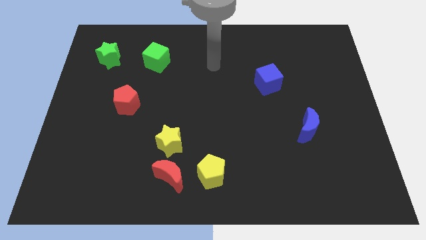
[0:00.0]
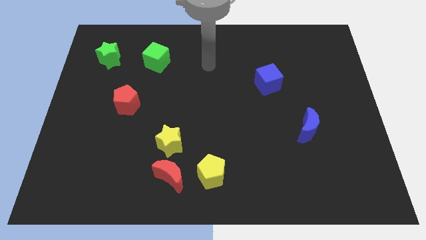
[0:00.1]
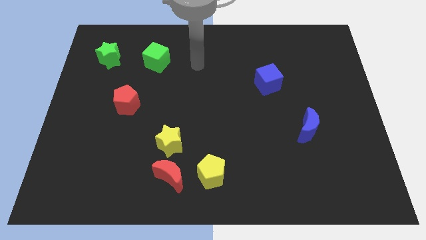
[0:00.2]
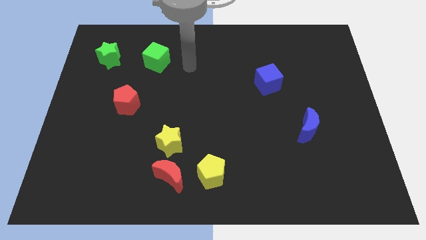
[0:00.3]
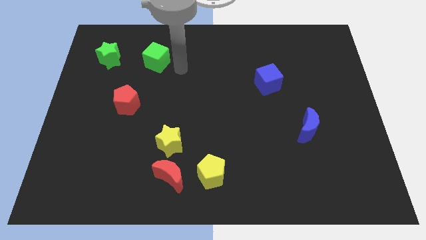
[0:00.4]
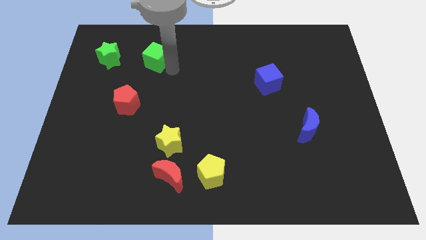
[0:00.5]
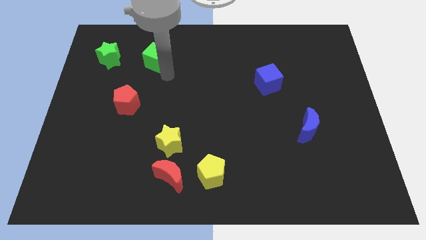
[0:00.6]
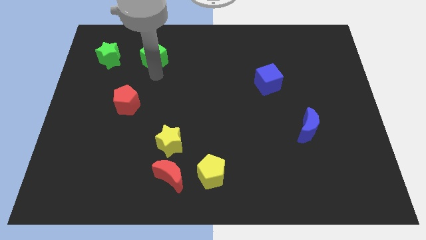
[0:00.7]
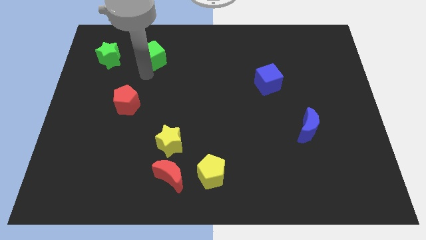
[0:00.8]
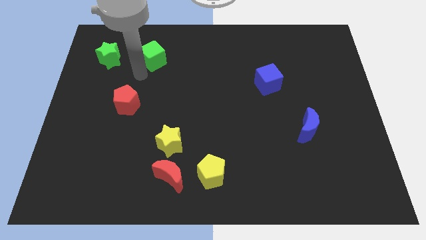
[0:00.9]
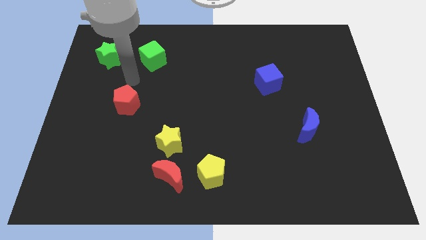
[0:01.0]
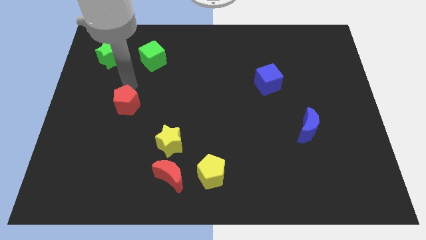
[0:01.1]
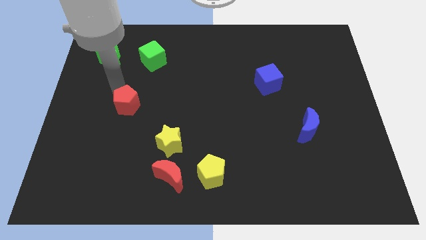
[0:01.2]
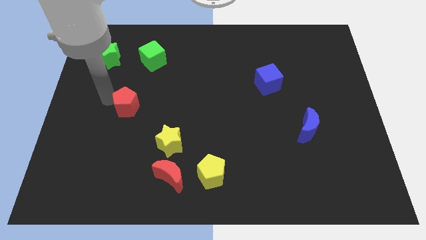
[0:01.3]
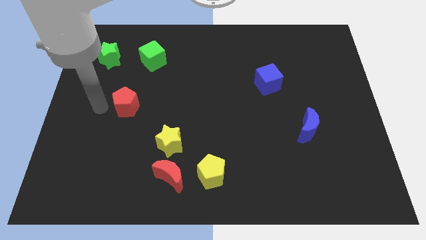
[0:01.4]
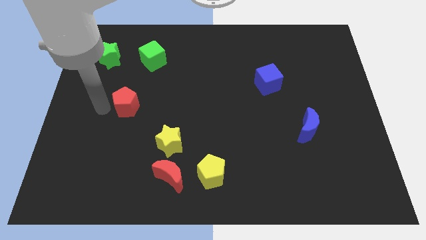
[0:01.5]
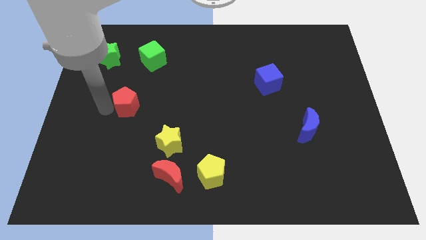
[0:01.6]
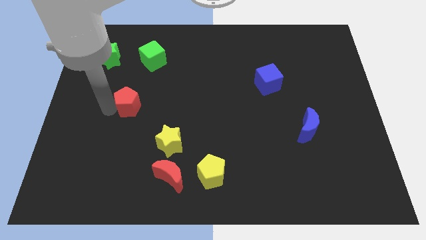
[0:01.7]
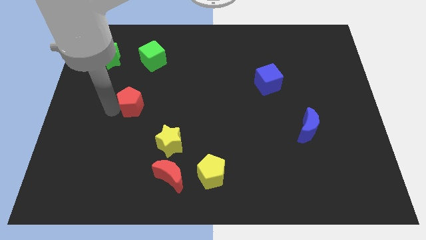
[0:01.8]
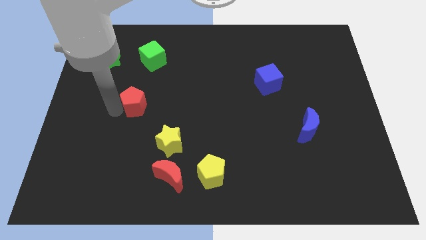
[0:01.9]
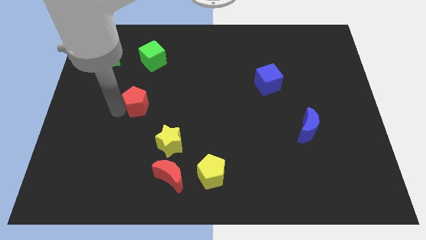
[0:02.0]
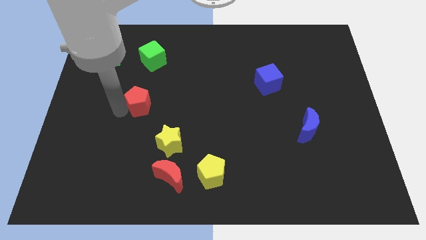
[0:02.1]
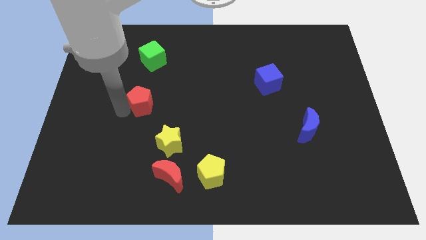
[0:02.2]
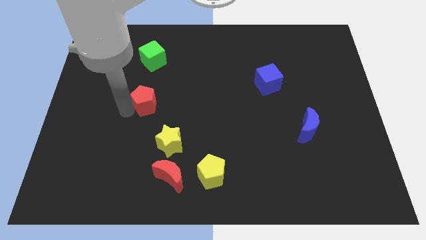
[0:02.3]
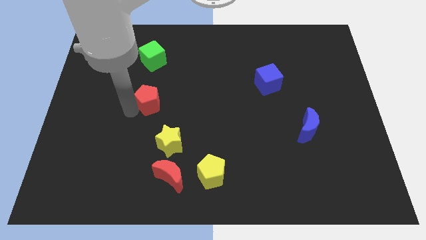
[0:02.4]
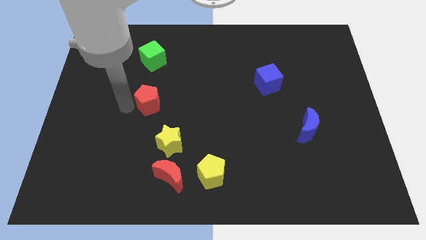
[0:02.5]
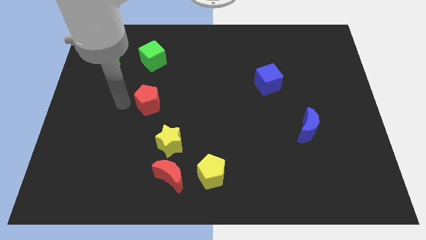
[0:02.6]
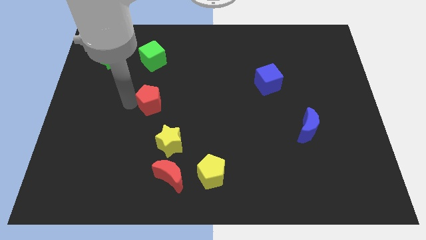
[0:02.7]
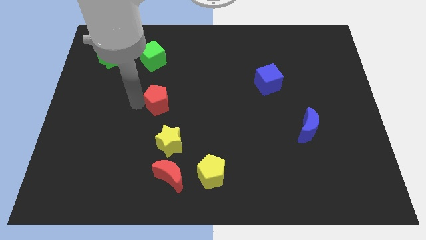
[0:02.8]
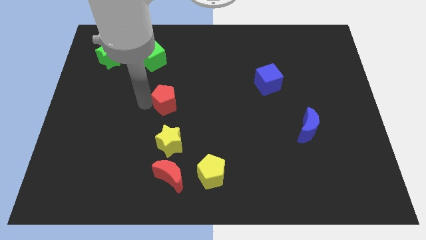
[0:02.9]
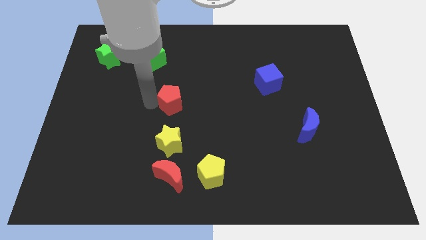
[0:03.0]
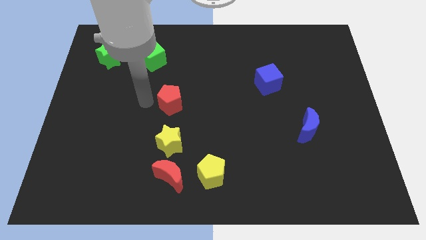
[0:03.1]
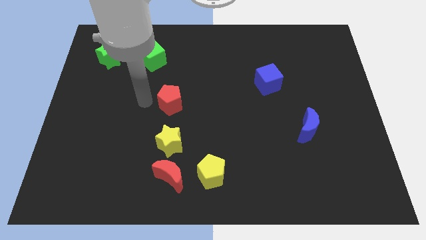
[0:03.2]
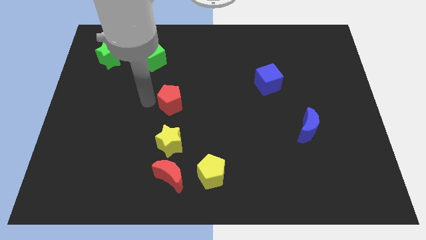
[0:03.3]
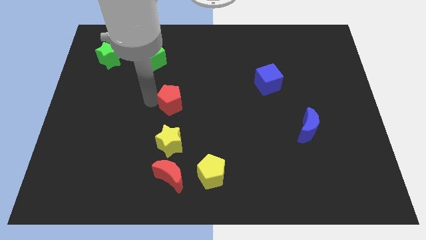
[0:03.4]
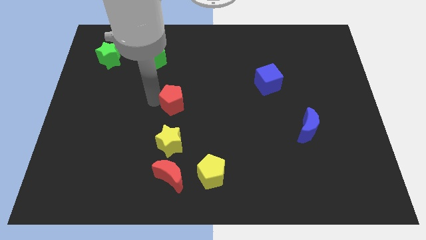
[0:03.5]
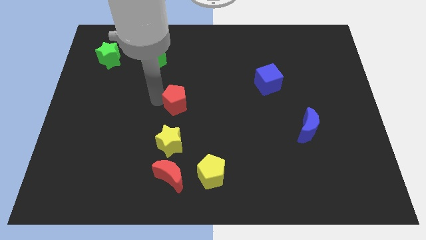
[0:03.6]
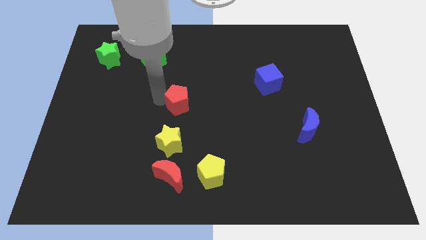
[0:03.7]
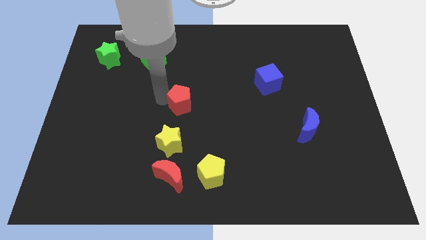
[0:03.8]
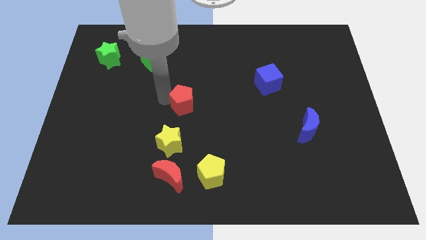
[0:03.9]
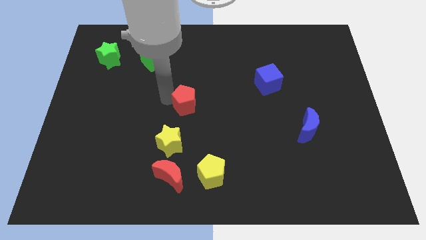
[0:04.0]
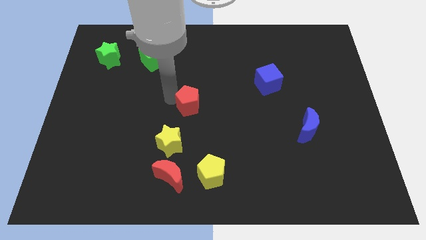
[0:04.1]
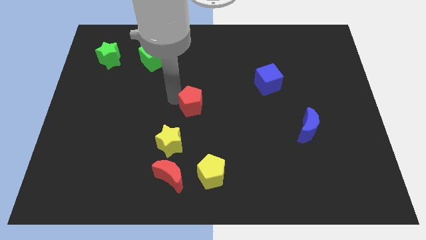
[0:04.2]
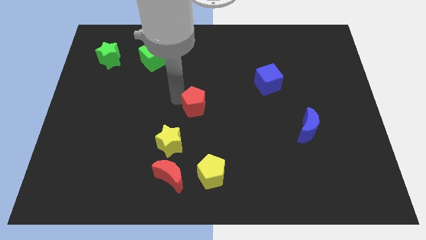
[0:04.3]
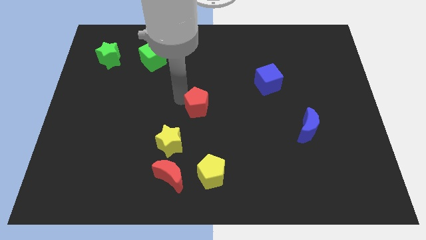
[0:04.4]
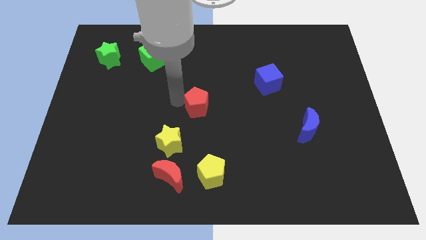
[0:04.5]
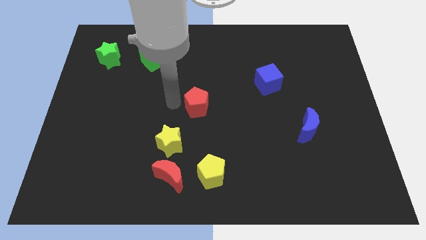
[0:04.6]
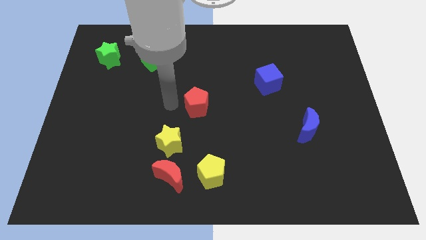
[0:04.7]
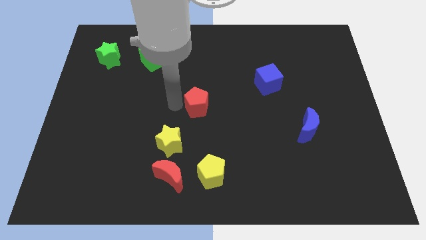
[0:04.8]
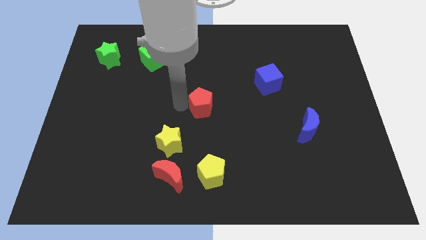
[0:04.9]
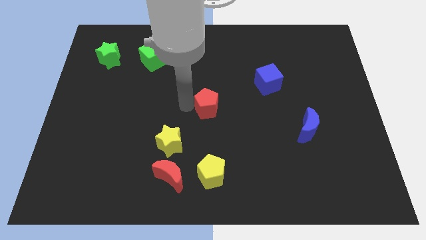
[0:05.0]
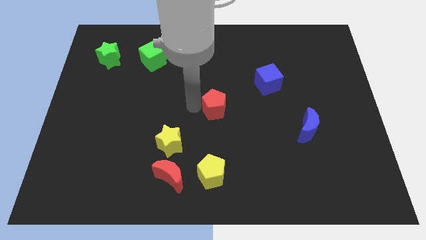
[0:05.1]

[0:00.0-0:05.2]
push the red pentagon to the right

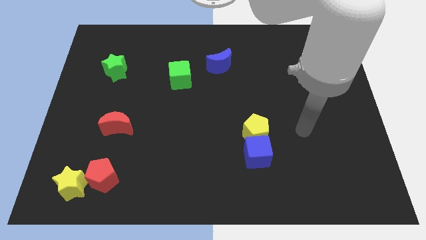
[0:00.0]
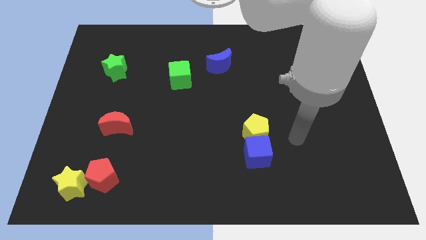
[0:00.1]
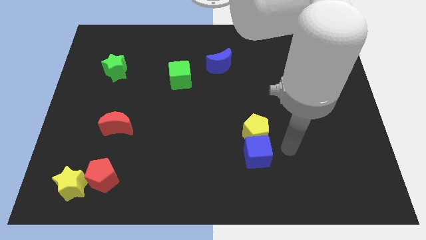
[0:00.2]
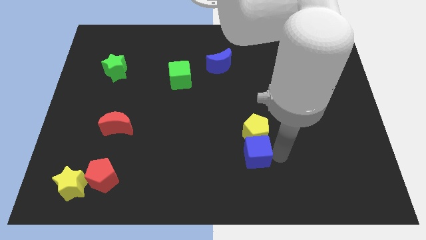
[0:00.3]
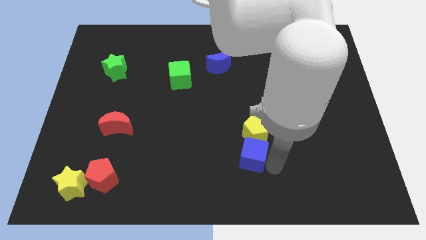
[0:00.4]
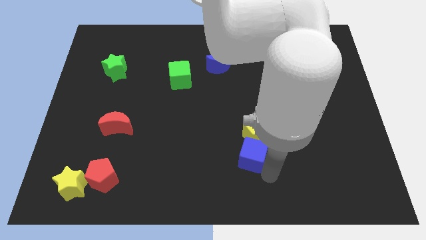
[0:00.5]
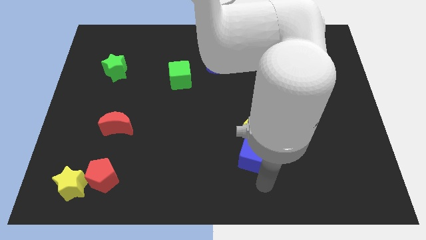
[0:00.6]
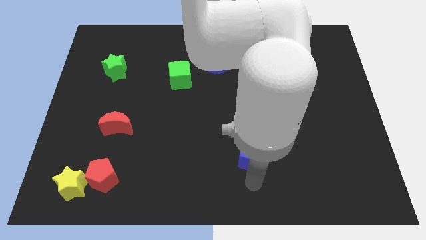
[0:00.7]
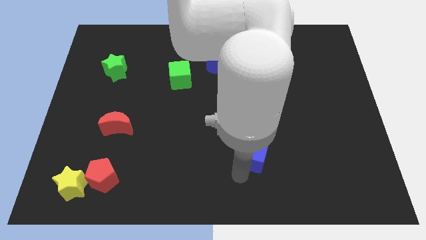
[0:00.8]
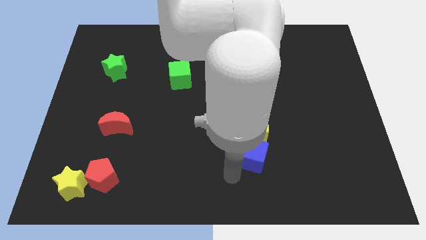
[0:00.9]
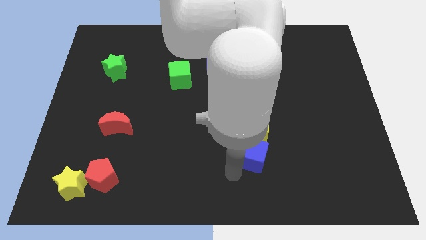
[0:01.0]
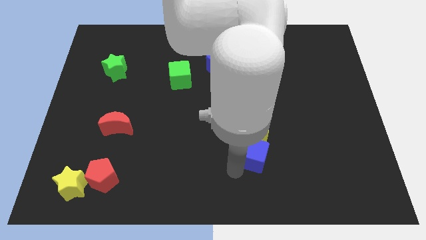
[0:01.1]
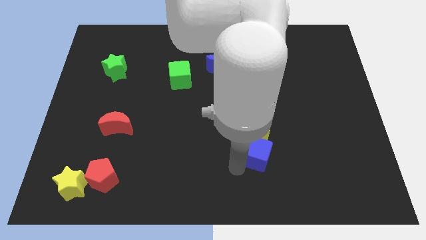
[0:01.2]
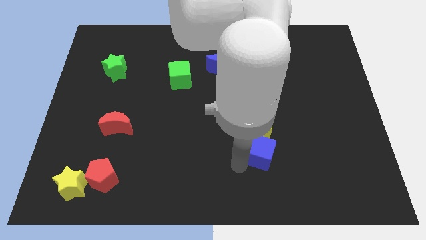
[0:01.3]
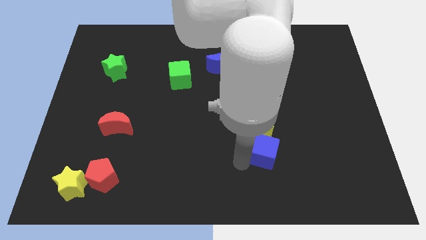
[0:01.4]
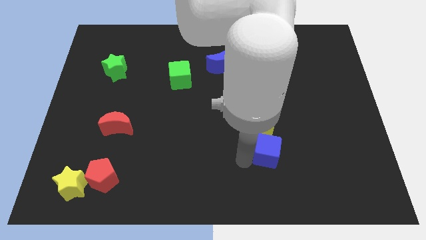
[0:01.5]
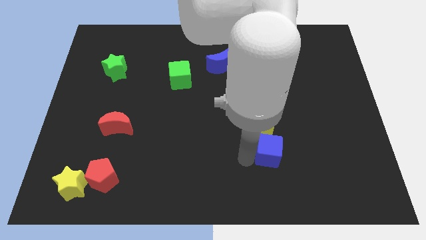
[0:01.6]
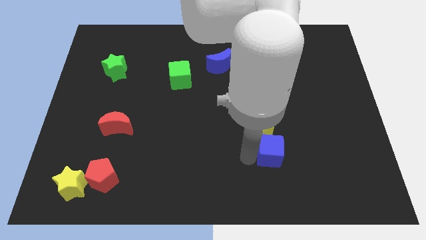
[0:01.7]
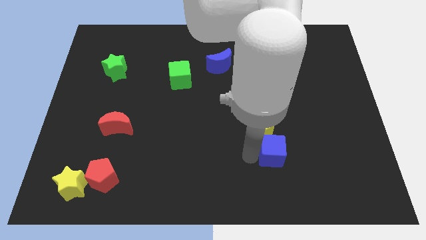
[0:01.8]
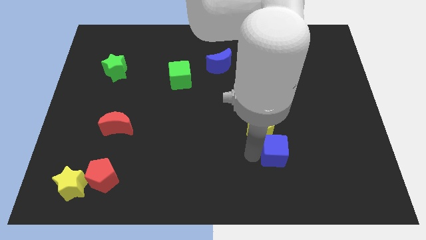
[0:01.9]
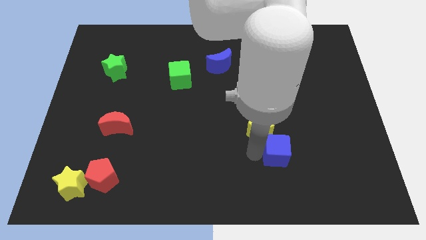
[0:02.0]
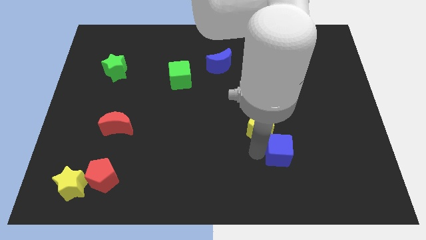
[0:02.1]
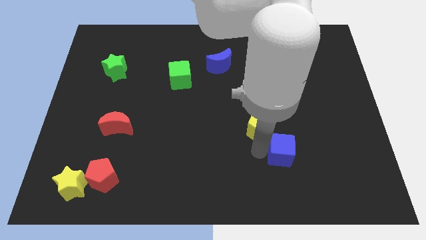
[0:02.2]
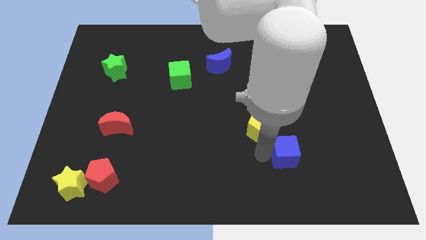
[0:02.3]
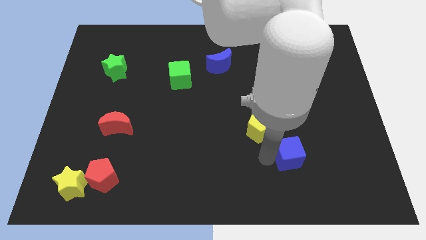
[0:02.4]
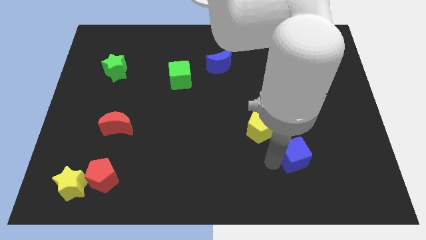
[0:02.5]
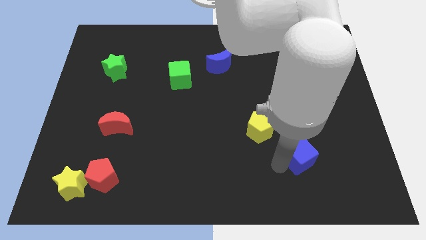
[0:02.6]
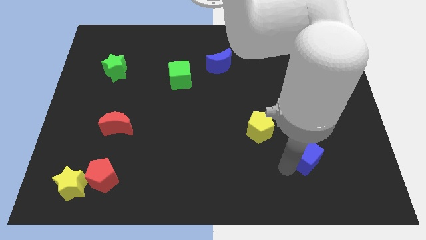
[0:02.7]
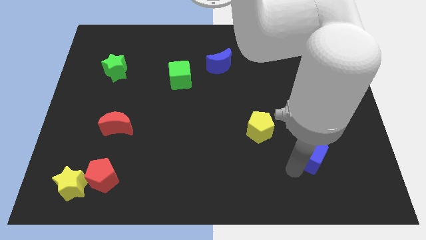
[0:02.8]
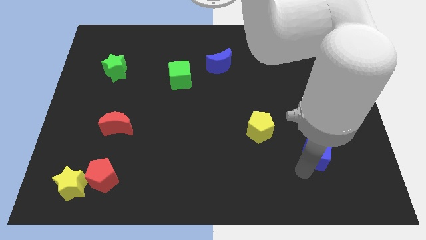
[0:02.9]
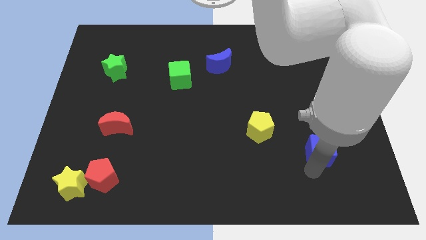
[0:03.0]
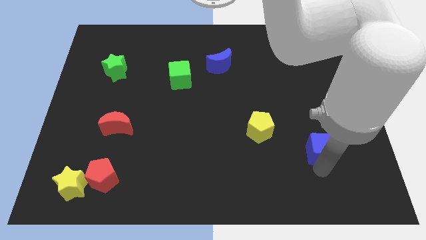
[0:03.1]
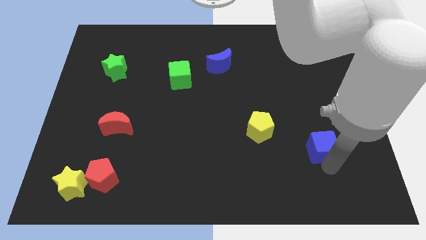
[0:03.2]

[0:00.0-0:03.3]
slightly slide the blue cube upwards and then right
